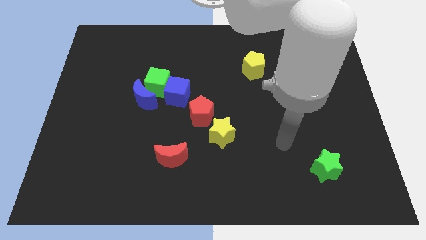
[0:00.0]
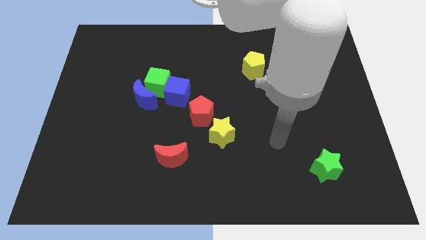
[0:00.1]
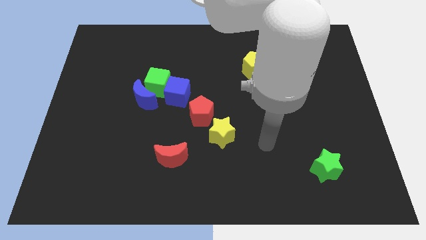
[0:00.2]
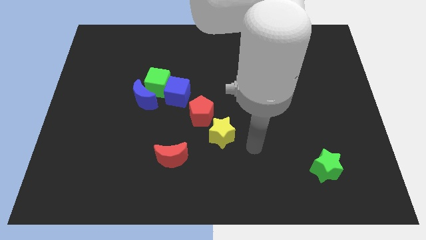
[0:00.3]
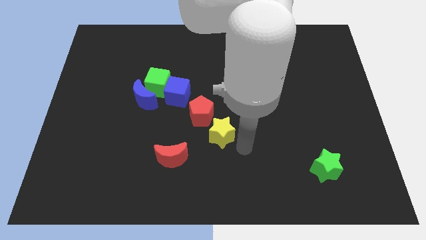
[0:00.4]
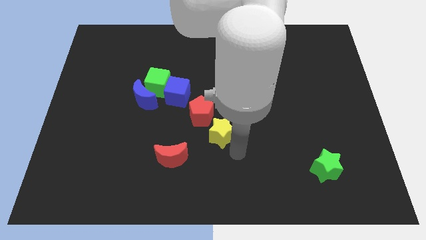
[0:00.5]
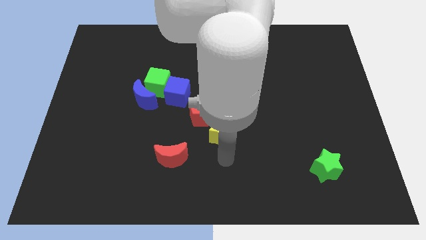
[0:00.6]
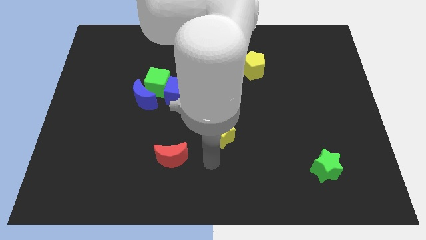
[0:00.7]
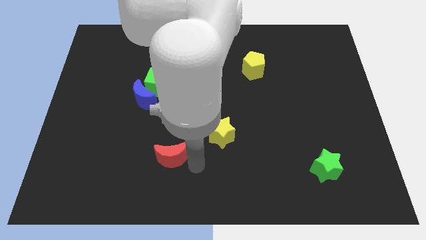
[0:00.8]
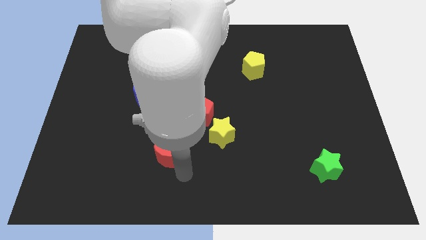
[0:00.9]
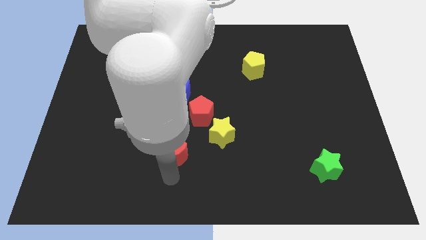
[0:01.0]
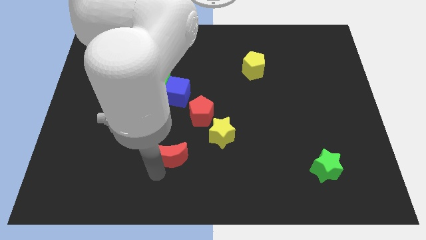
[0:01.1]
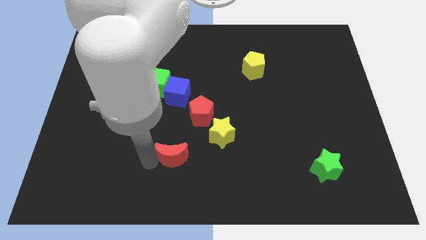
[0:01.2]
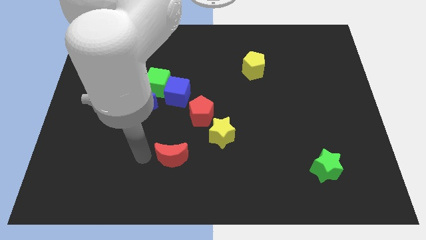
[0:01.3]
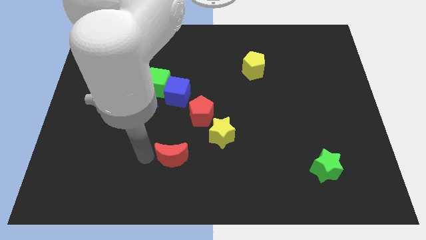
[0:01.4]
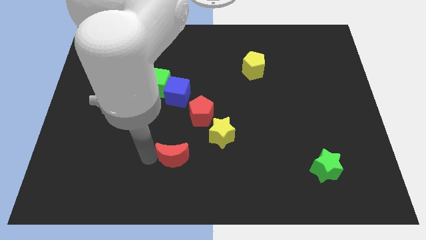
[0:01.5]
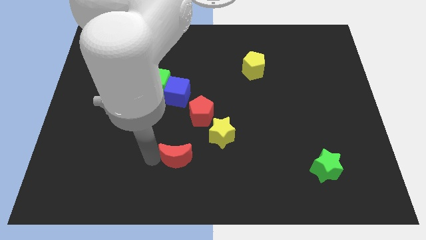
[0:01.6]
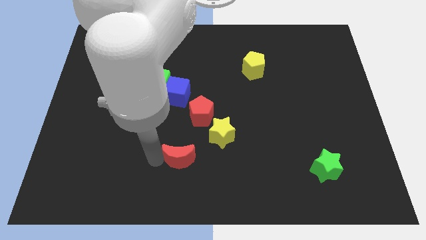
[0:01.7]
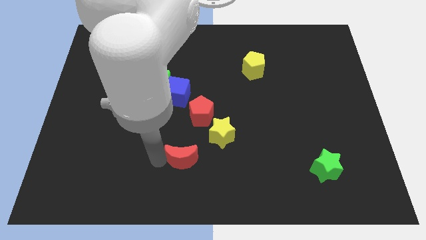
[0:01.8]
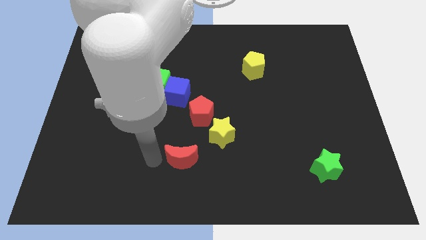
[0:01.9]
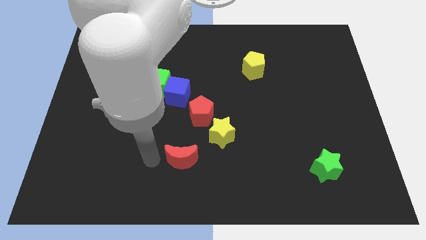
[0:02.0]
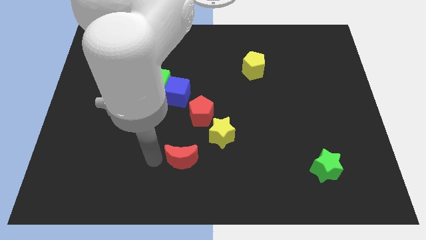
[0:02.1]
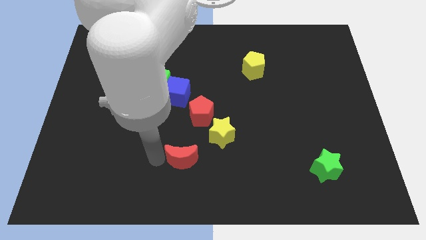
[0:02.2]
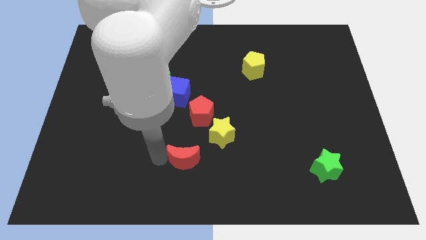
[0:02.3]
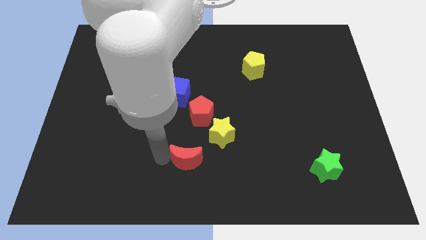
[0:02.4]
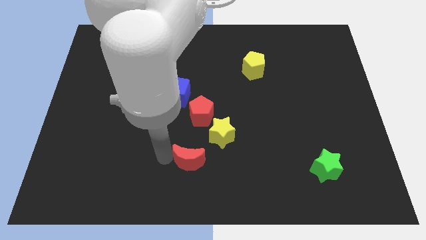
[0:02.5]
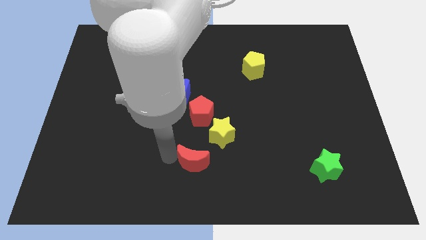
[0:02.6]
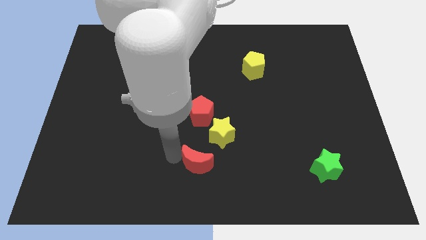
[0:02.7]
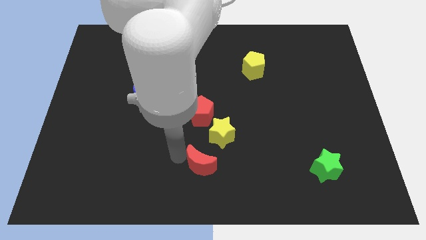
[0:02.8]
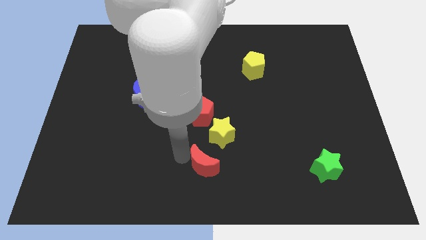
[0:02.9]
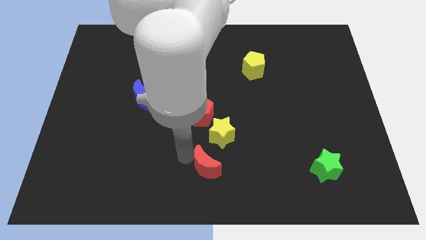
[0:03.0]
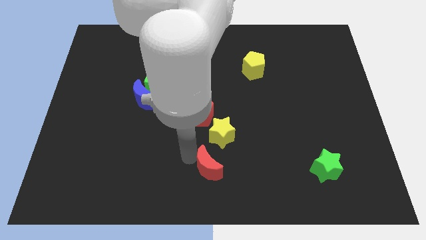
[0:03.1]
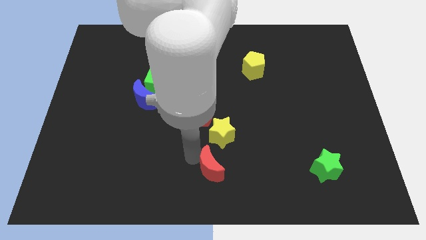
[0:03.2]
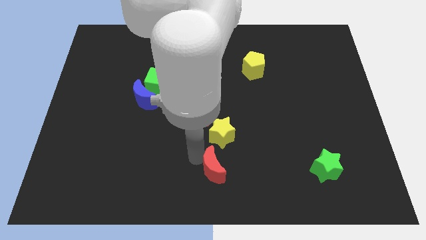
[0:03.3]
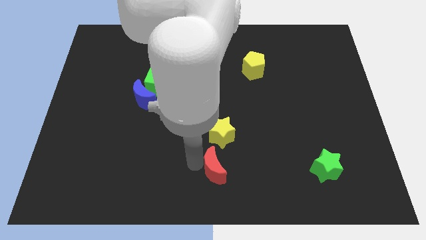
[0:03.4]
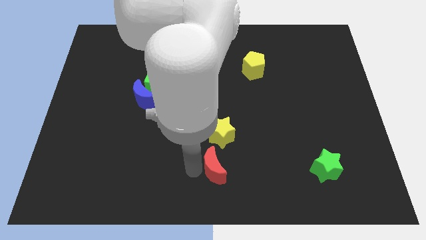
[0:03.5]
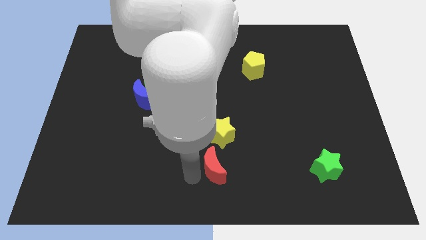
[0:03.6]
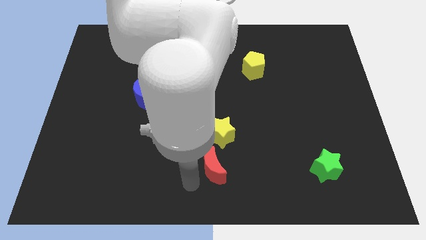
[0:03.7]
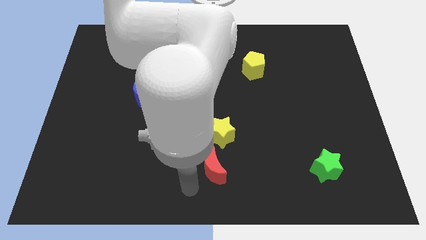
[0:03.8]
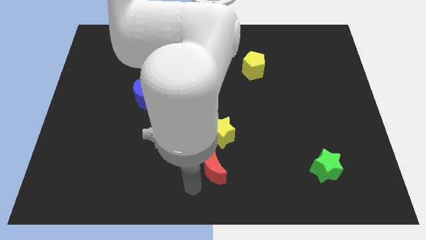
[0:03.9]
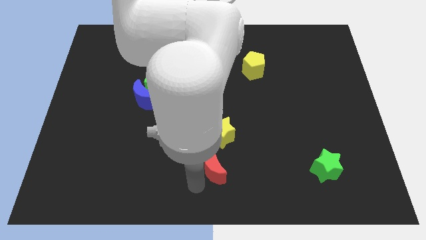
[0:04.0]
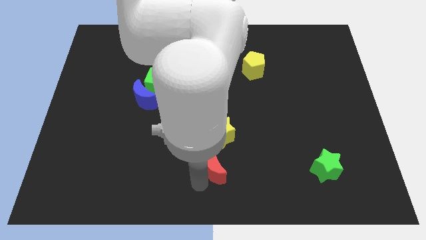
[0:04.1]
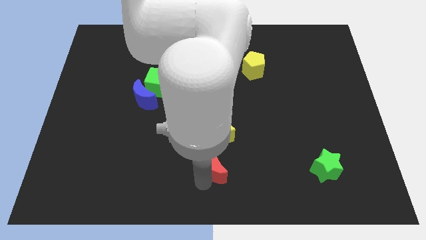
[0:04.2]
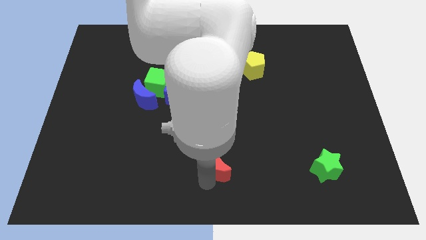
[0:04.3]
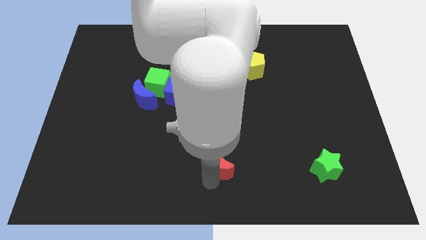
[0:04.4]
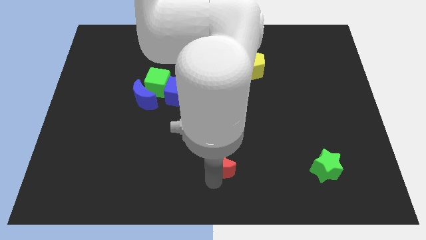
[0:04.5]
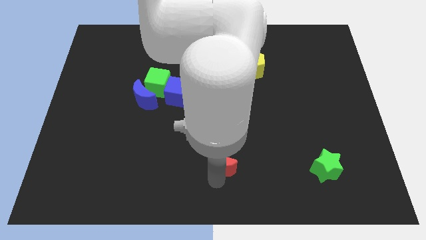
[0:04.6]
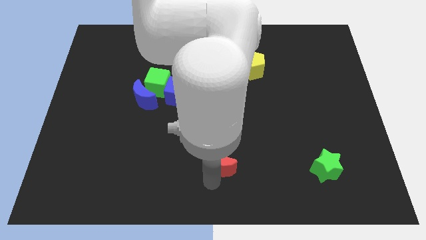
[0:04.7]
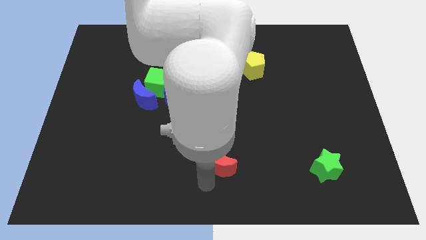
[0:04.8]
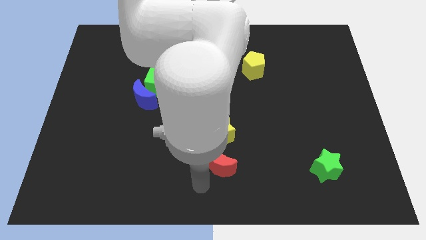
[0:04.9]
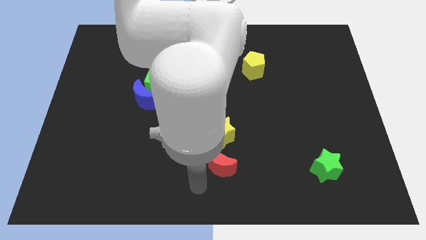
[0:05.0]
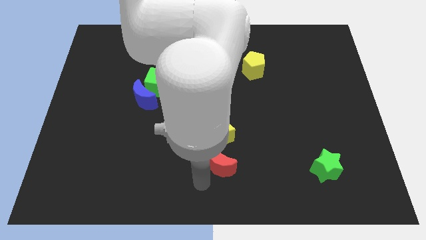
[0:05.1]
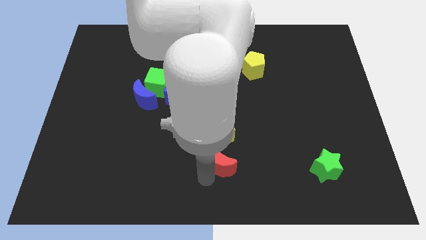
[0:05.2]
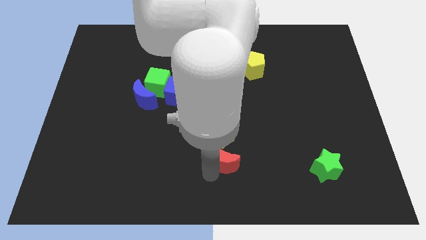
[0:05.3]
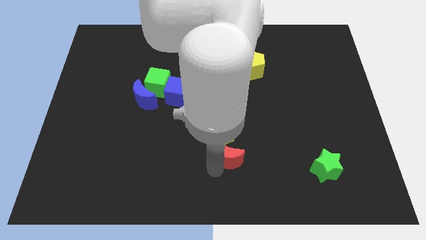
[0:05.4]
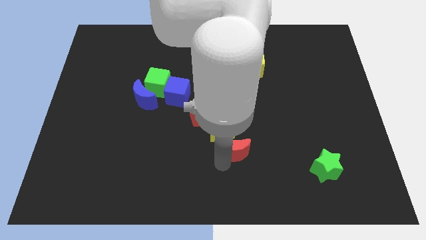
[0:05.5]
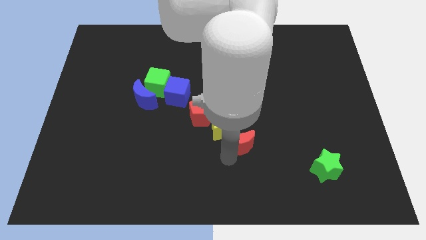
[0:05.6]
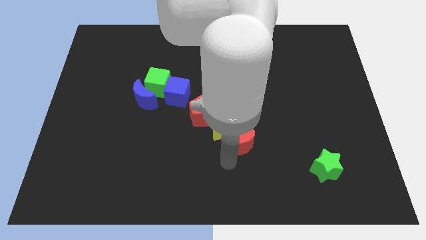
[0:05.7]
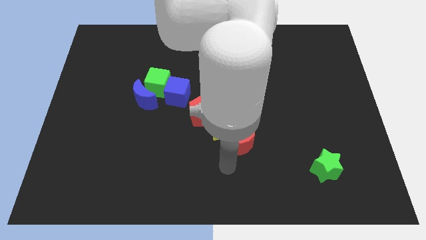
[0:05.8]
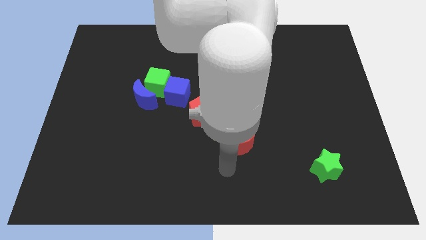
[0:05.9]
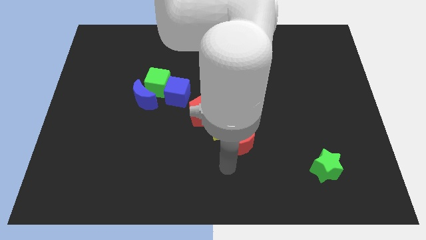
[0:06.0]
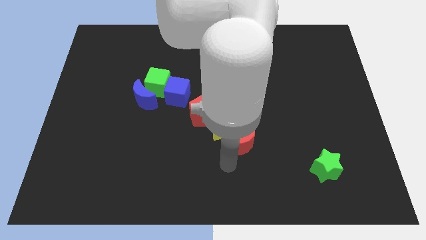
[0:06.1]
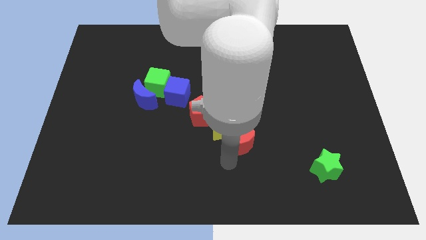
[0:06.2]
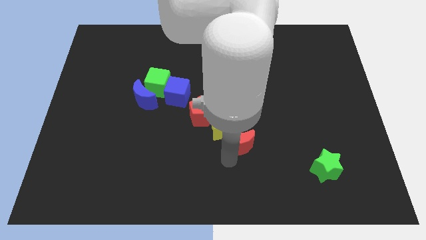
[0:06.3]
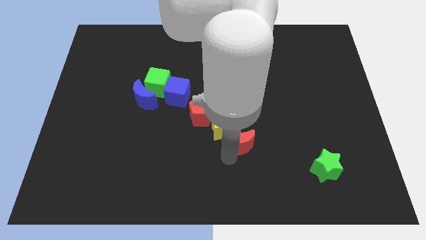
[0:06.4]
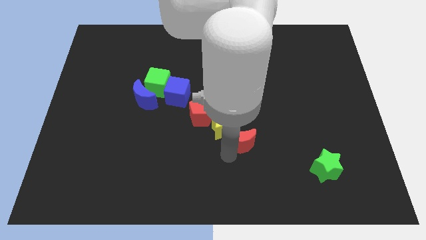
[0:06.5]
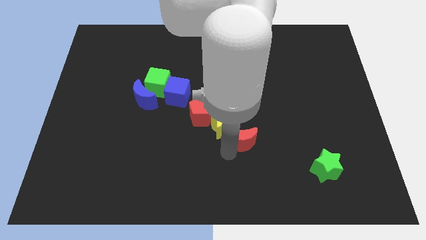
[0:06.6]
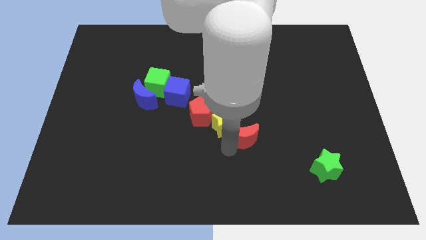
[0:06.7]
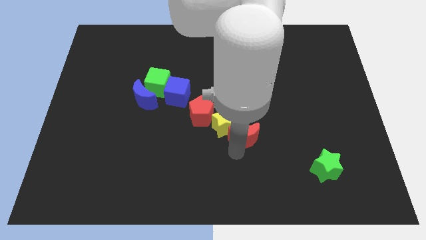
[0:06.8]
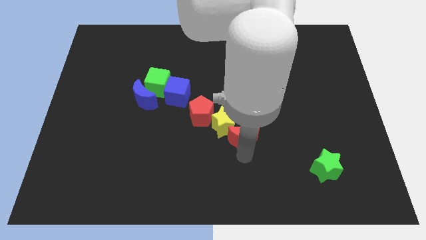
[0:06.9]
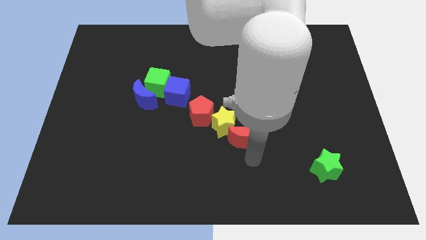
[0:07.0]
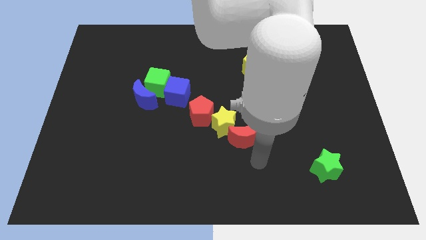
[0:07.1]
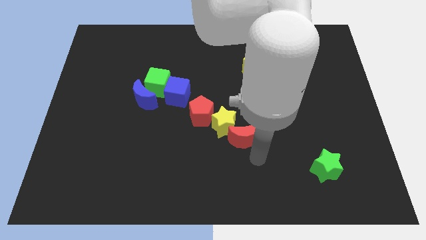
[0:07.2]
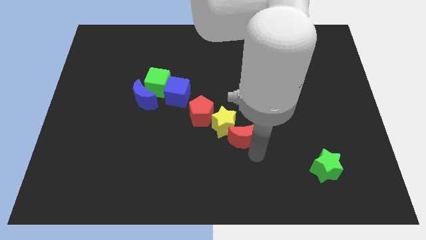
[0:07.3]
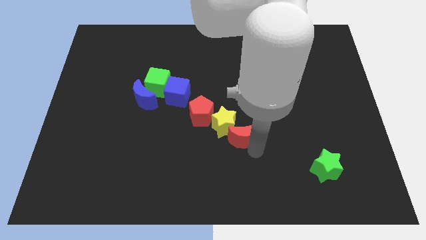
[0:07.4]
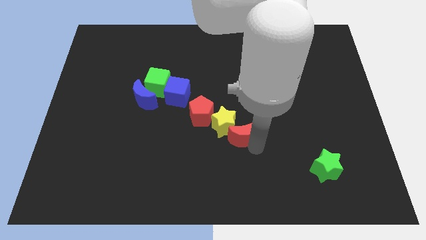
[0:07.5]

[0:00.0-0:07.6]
move the red moon to the middle of the board
